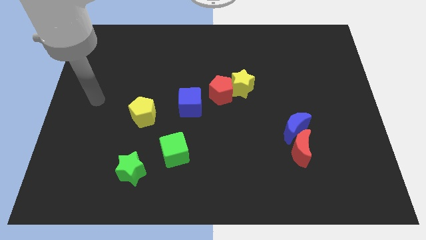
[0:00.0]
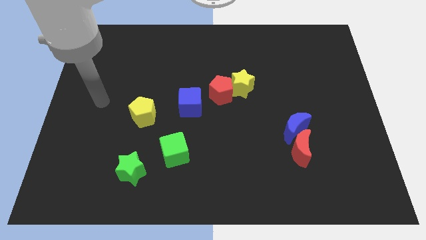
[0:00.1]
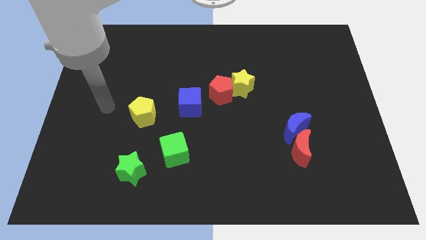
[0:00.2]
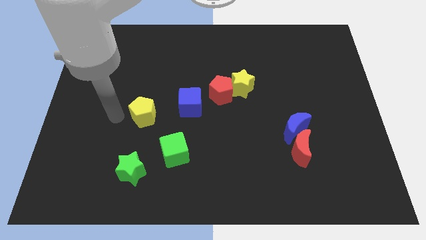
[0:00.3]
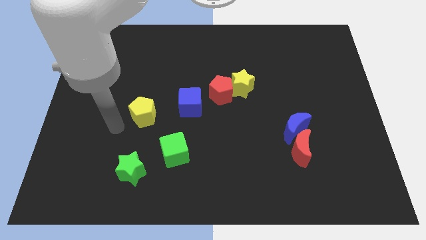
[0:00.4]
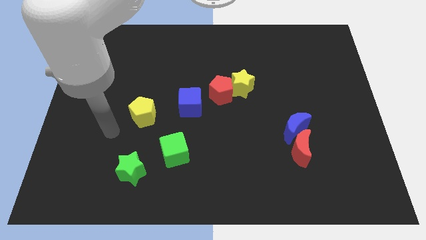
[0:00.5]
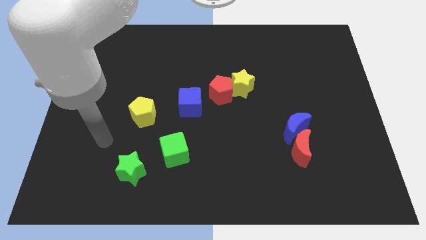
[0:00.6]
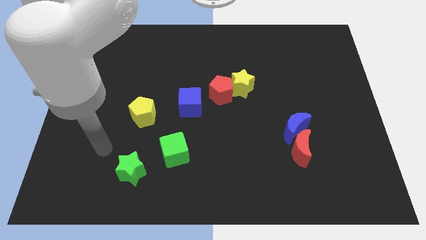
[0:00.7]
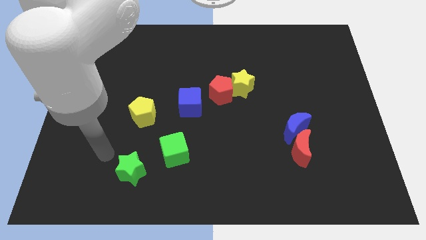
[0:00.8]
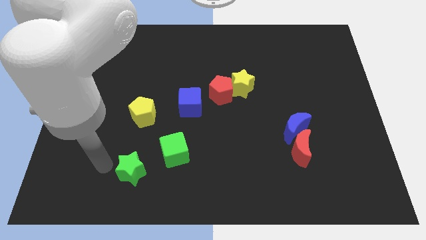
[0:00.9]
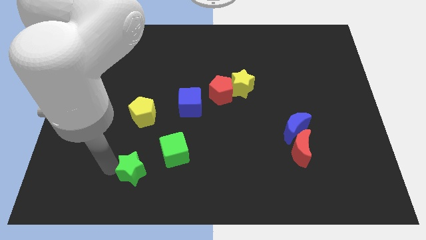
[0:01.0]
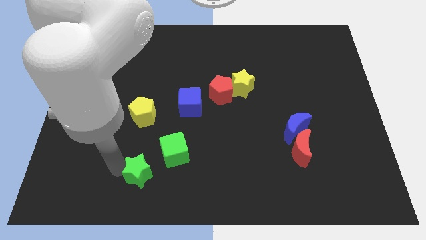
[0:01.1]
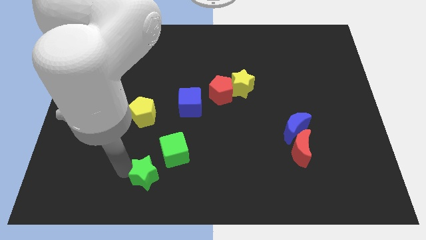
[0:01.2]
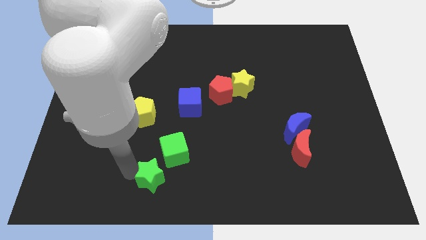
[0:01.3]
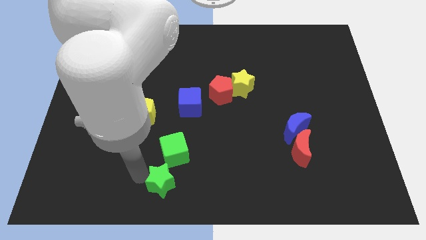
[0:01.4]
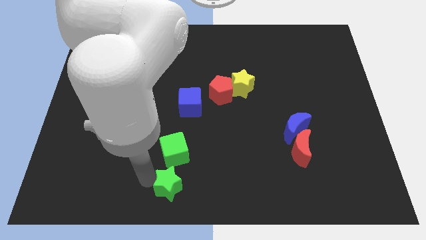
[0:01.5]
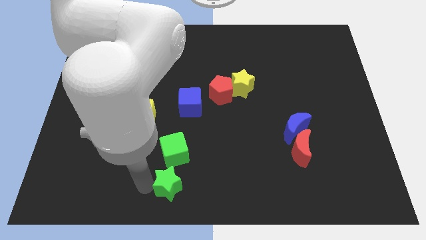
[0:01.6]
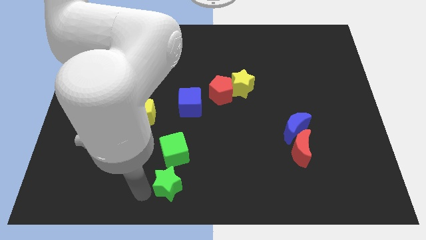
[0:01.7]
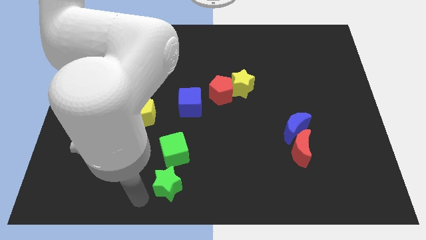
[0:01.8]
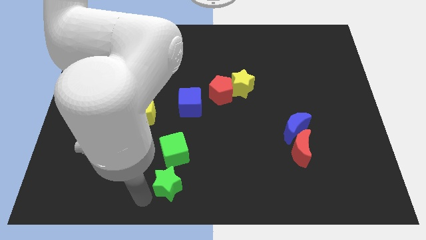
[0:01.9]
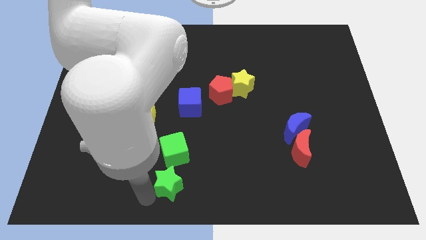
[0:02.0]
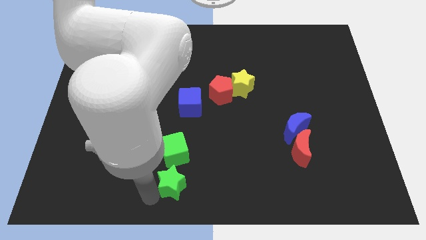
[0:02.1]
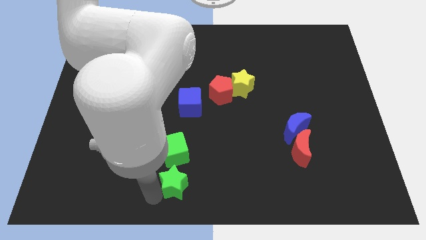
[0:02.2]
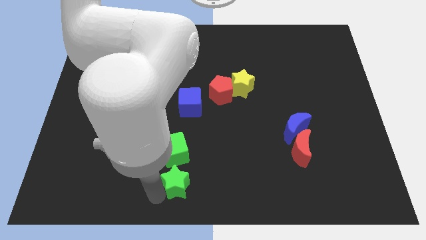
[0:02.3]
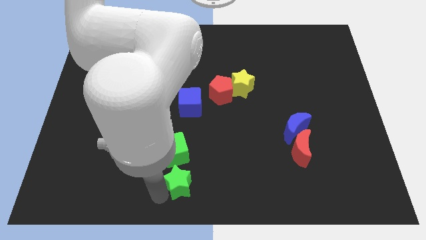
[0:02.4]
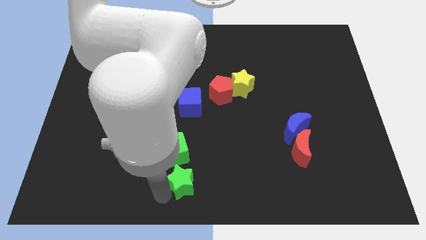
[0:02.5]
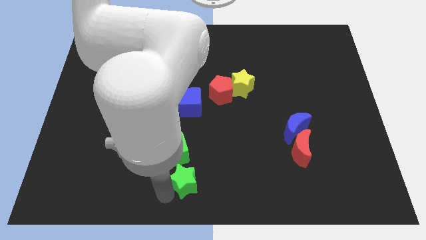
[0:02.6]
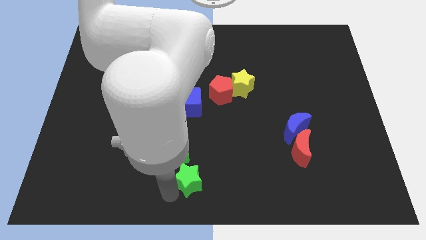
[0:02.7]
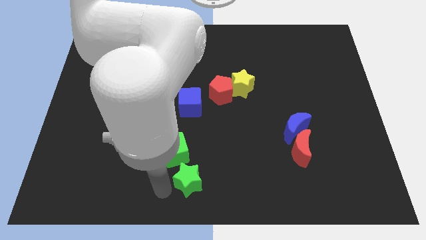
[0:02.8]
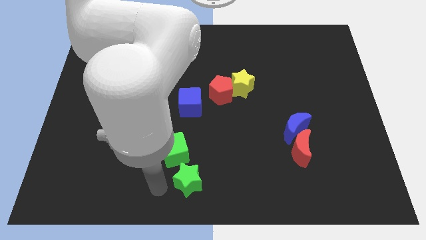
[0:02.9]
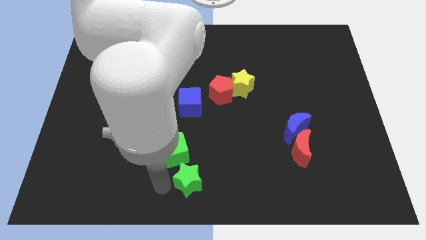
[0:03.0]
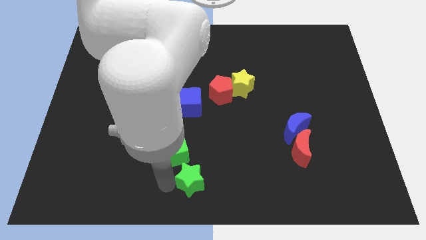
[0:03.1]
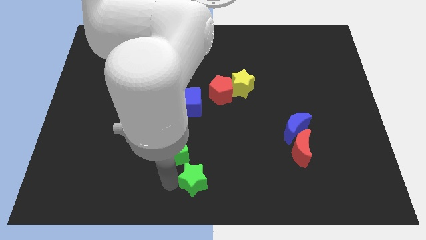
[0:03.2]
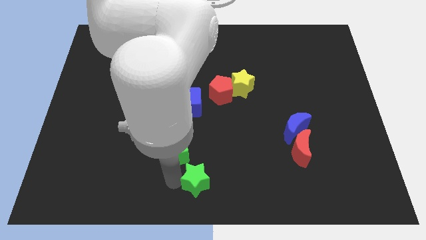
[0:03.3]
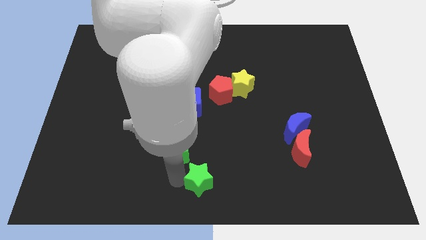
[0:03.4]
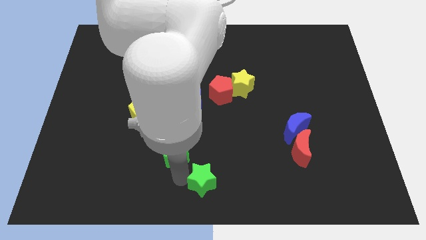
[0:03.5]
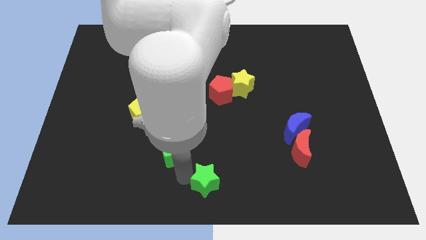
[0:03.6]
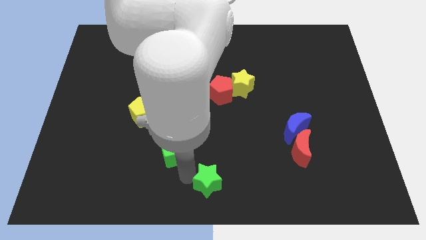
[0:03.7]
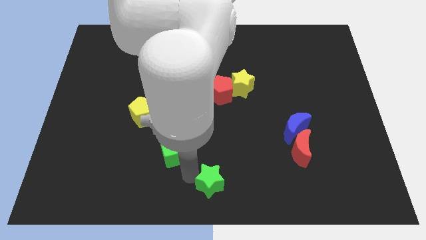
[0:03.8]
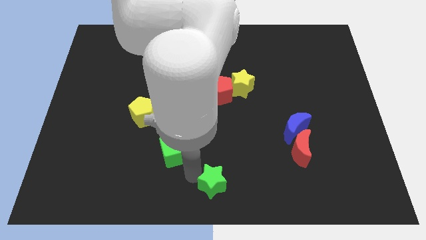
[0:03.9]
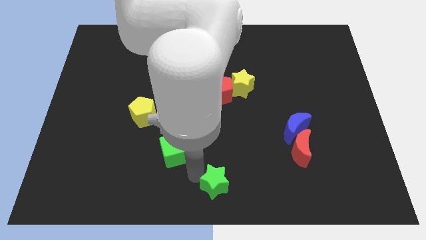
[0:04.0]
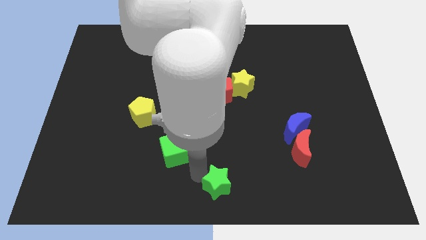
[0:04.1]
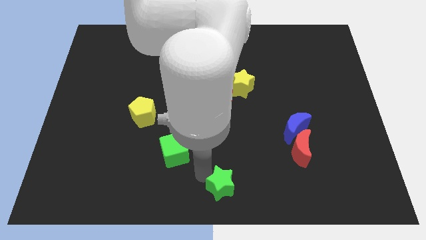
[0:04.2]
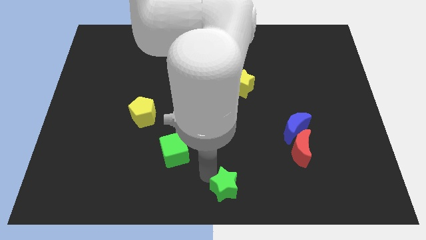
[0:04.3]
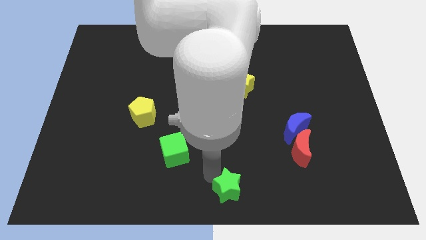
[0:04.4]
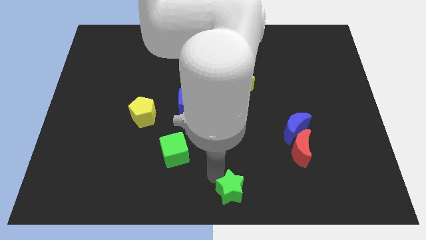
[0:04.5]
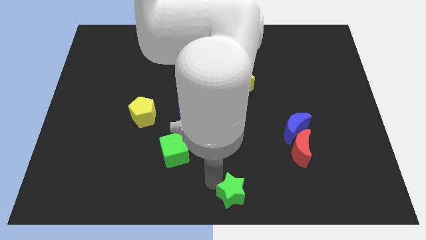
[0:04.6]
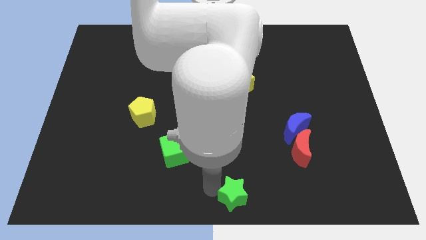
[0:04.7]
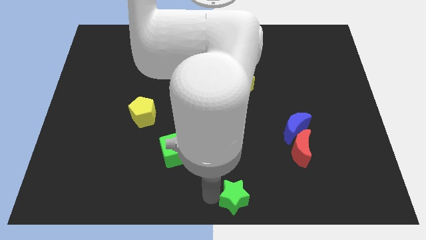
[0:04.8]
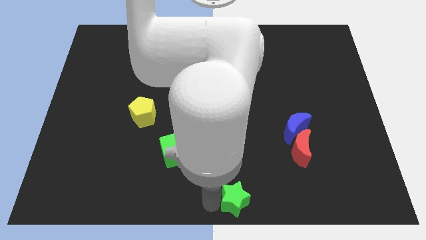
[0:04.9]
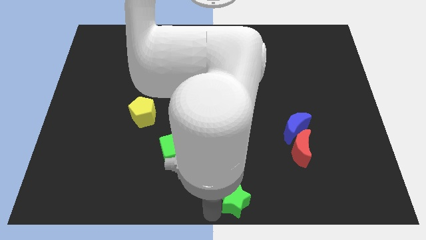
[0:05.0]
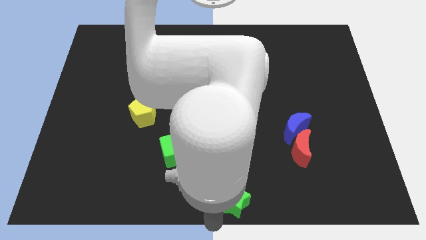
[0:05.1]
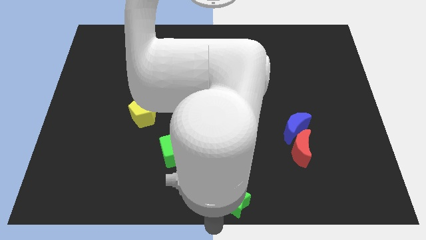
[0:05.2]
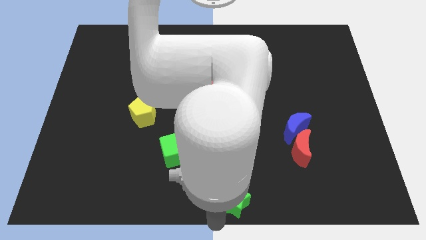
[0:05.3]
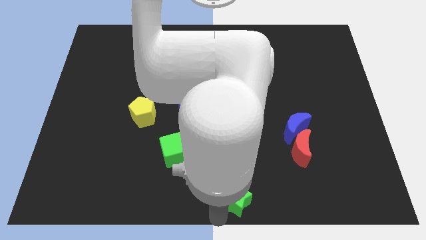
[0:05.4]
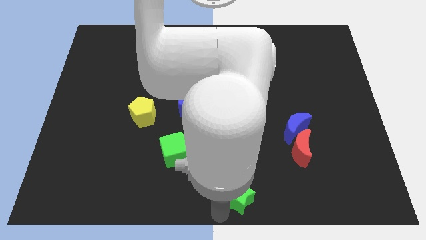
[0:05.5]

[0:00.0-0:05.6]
slide the green star to the right

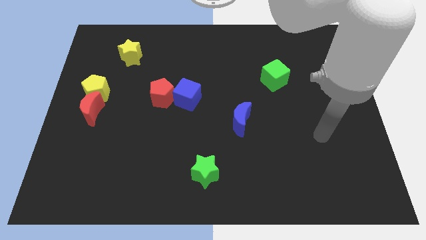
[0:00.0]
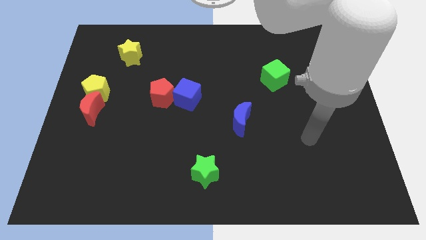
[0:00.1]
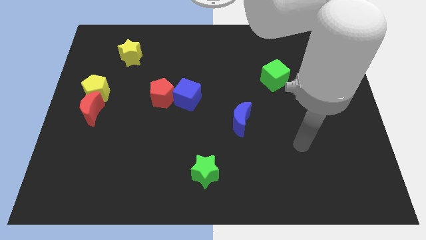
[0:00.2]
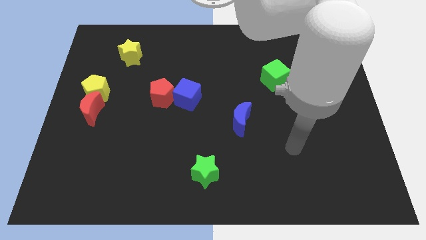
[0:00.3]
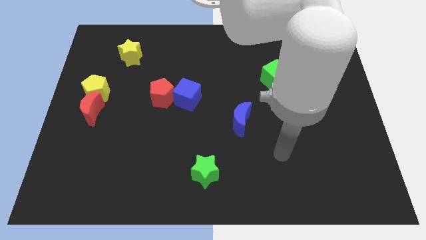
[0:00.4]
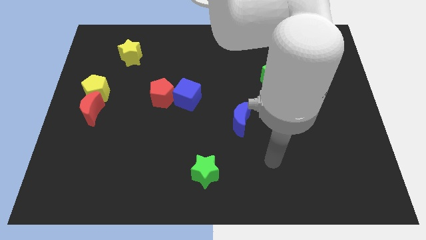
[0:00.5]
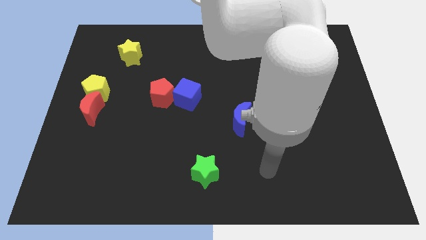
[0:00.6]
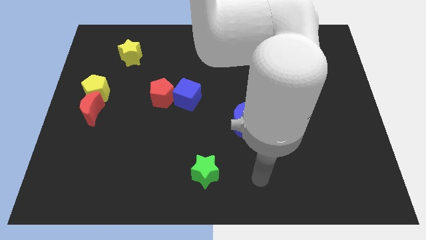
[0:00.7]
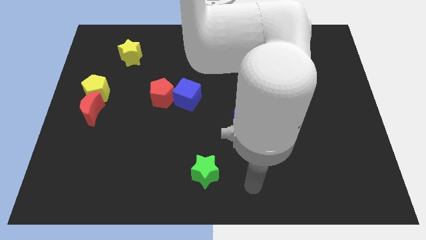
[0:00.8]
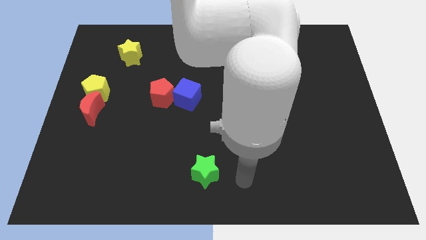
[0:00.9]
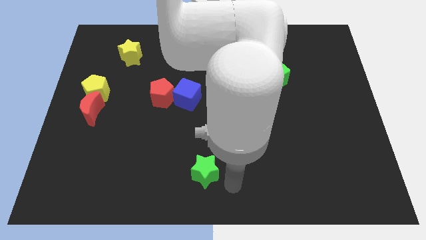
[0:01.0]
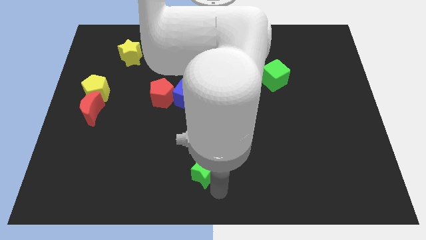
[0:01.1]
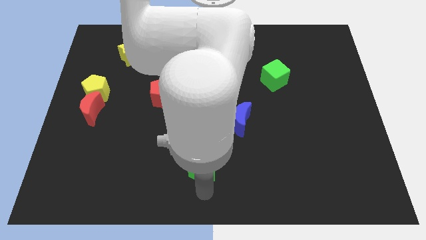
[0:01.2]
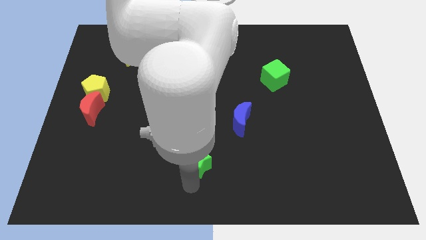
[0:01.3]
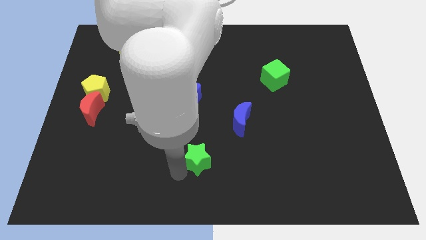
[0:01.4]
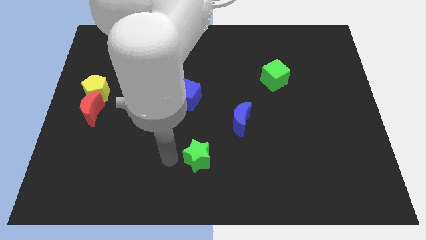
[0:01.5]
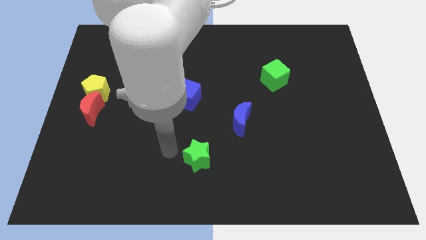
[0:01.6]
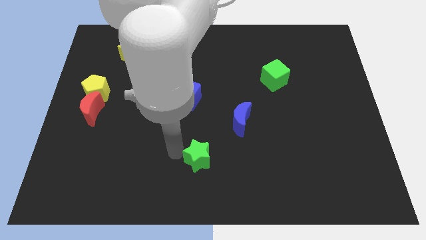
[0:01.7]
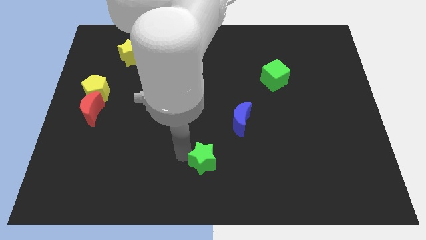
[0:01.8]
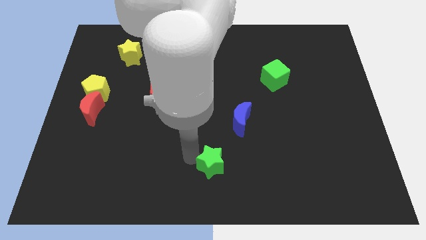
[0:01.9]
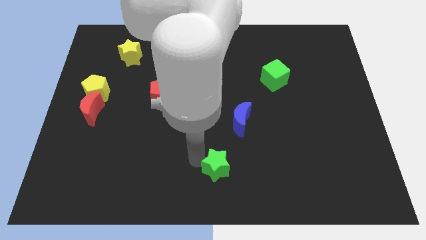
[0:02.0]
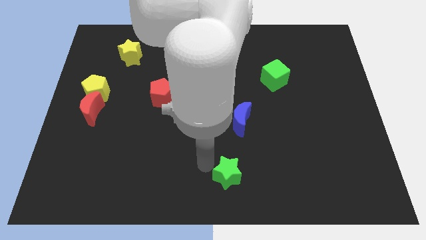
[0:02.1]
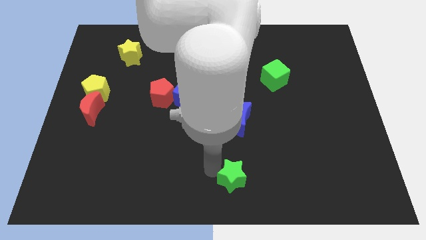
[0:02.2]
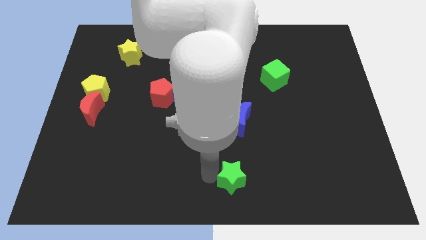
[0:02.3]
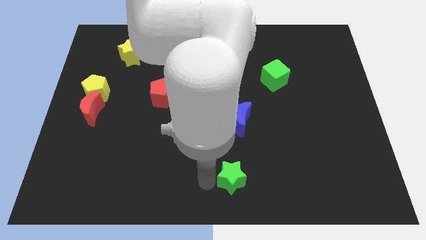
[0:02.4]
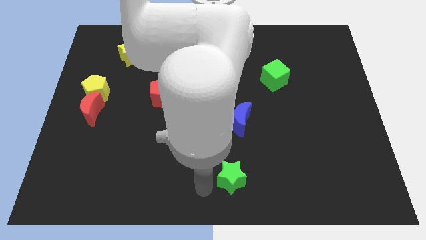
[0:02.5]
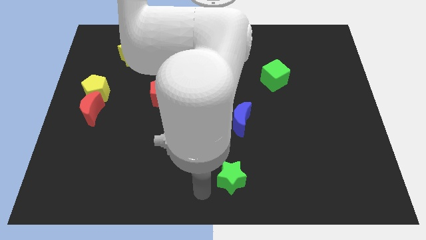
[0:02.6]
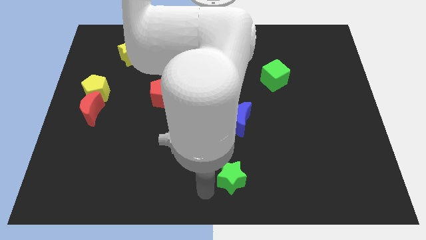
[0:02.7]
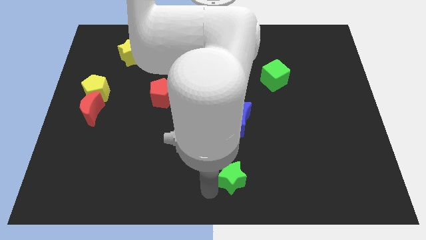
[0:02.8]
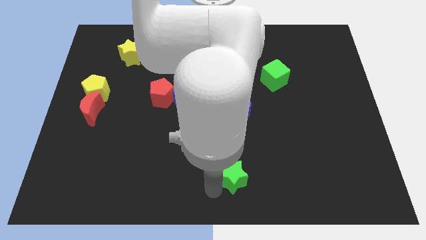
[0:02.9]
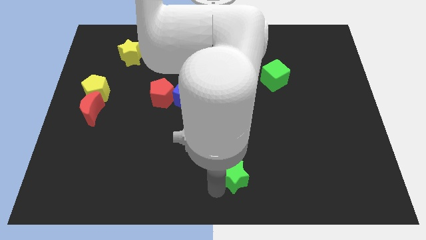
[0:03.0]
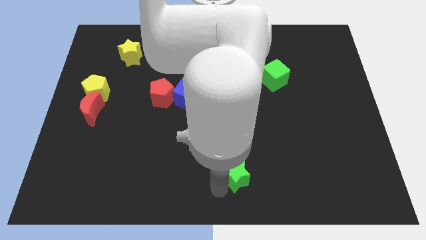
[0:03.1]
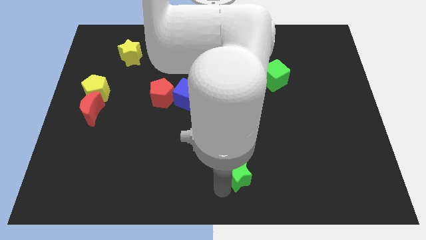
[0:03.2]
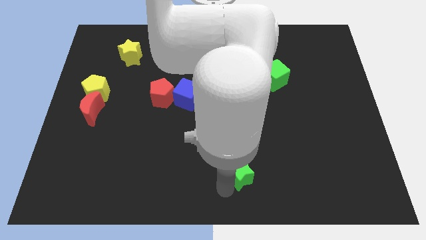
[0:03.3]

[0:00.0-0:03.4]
move the green star a little bit to the right
